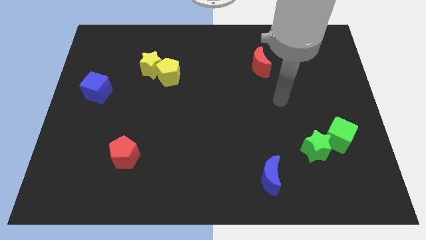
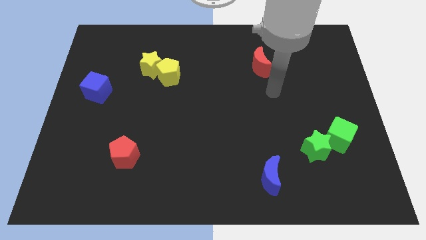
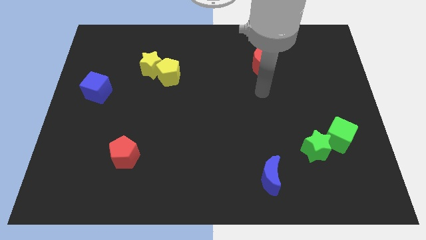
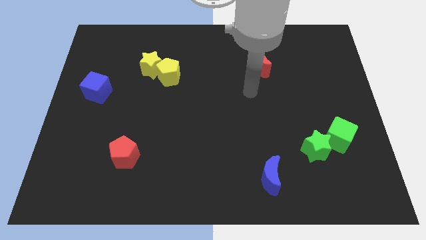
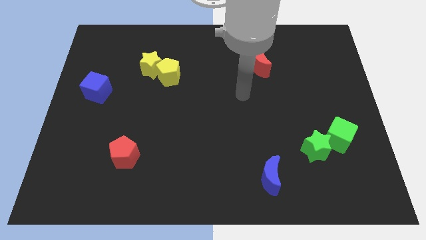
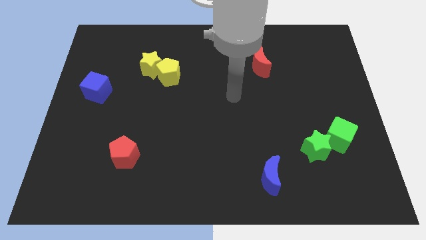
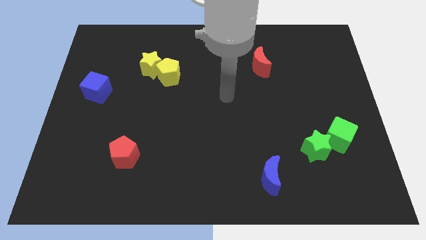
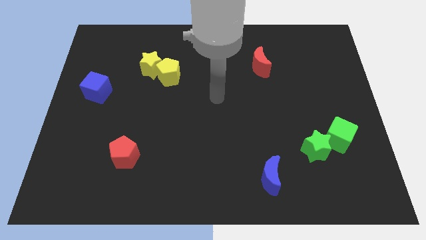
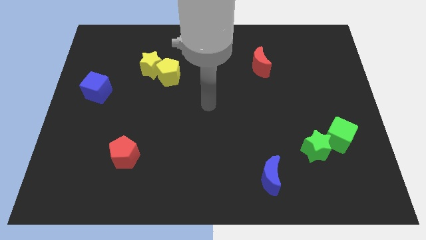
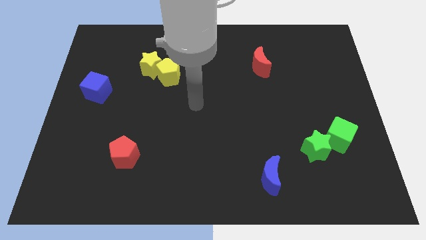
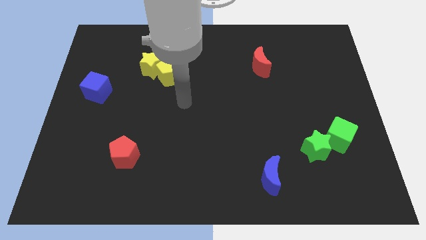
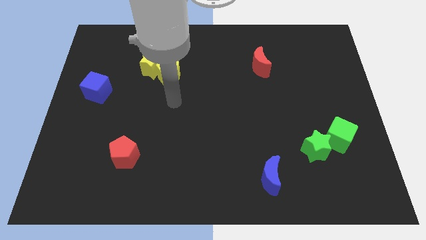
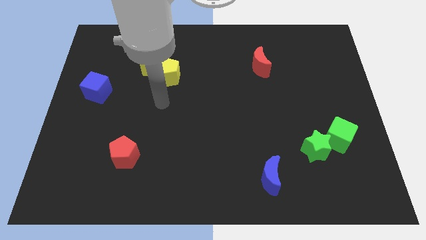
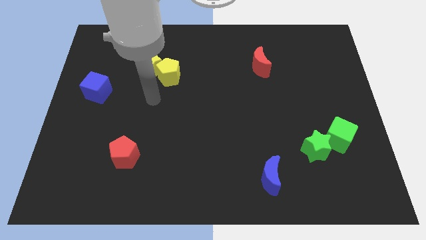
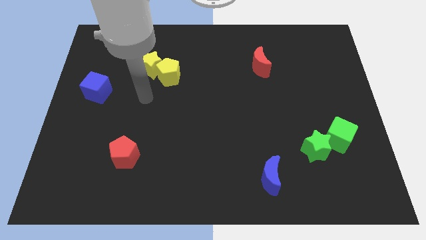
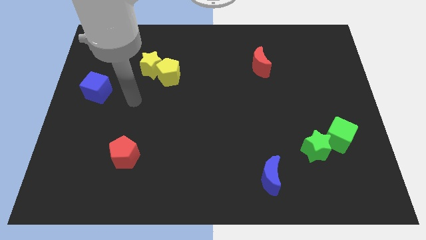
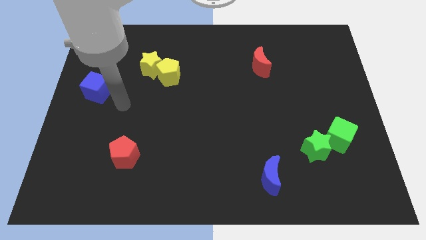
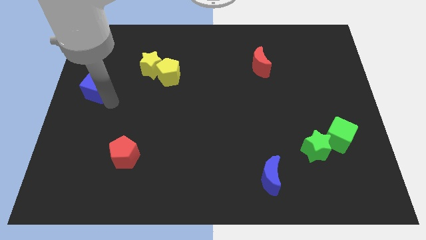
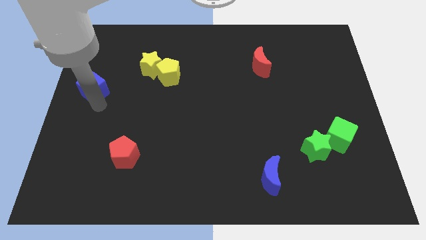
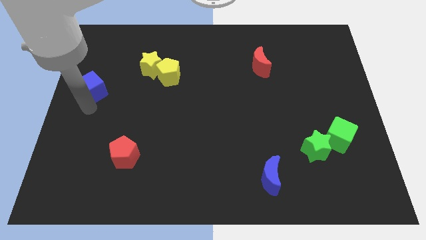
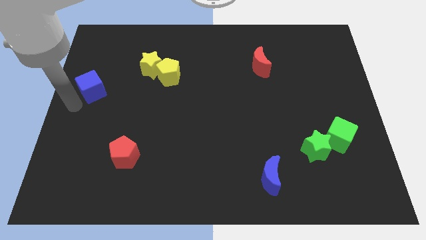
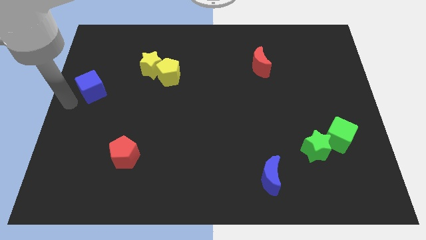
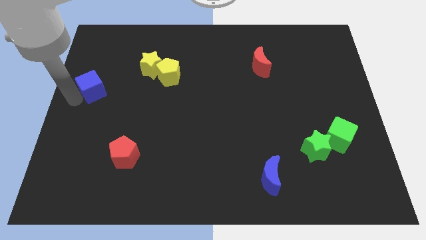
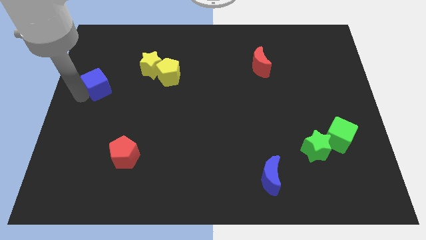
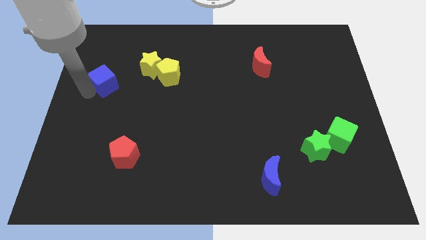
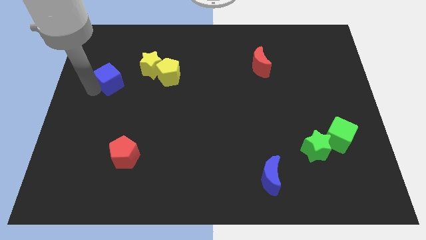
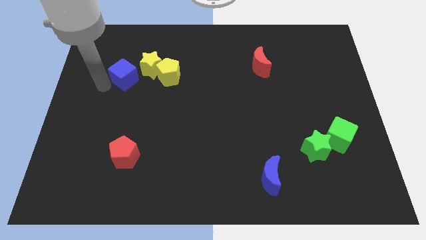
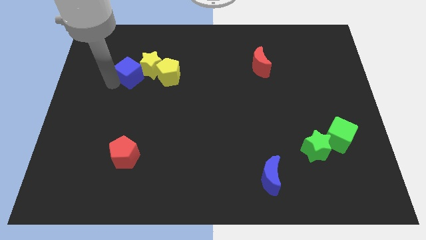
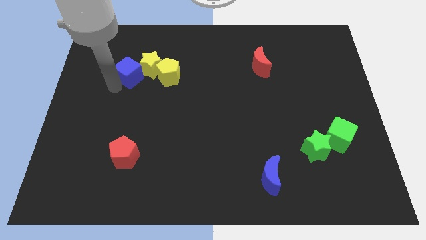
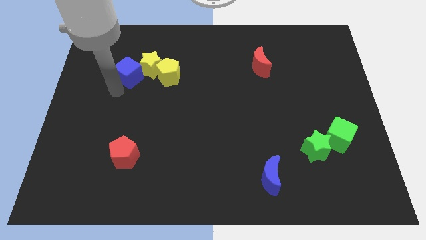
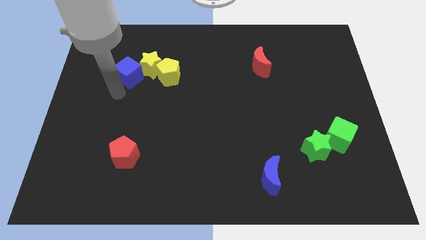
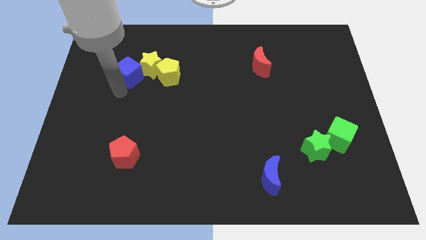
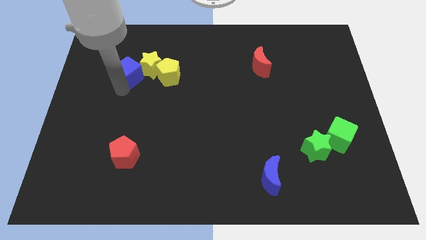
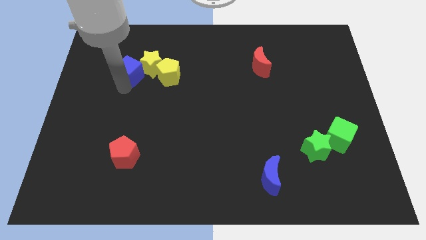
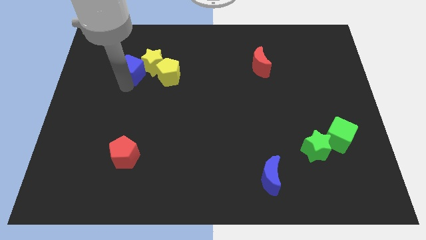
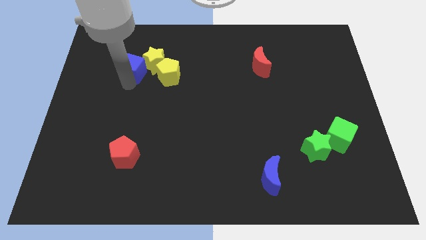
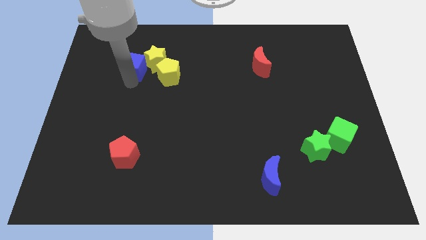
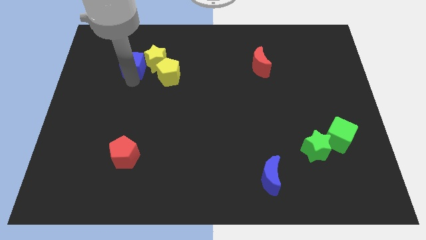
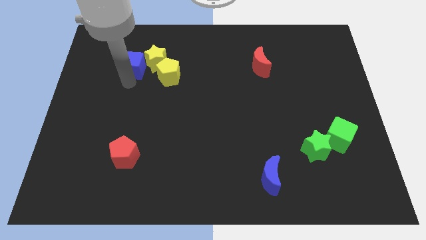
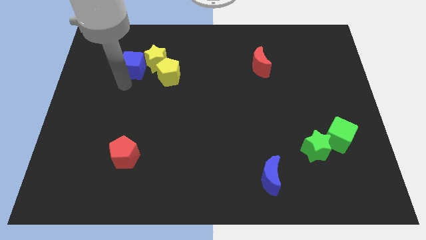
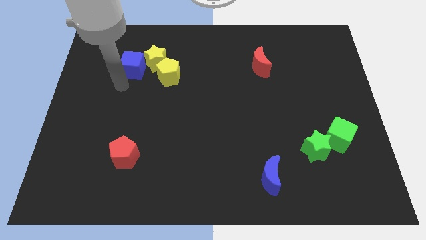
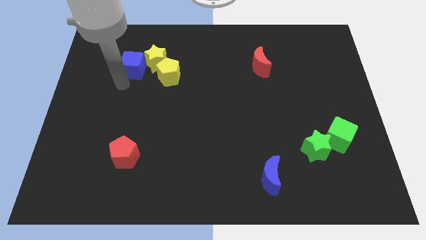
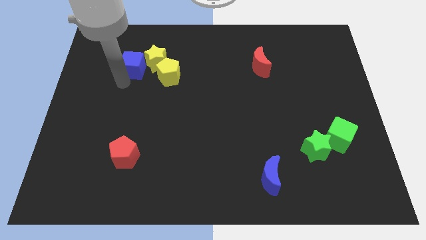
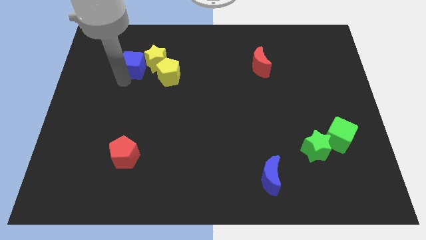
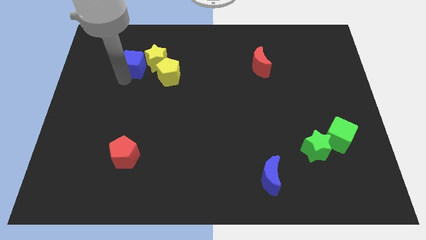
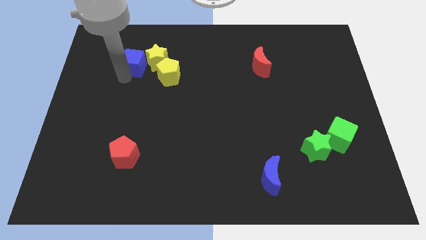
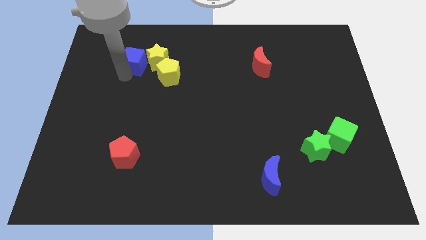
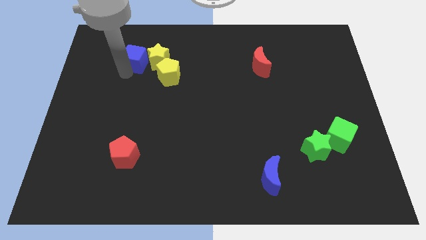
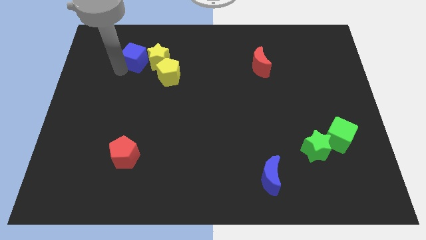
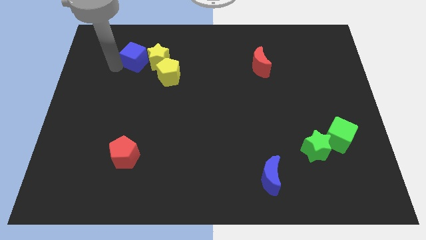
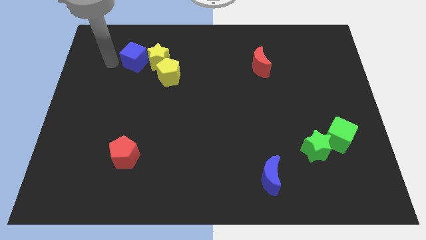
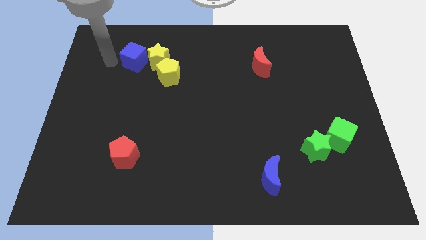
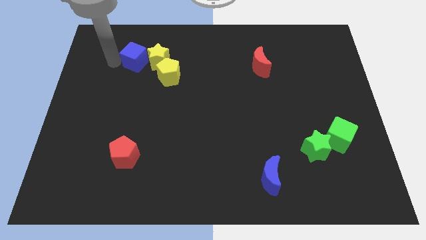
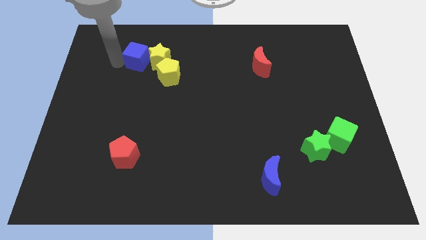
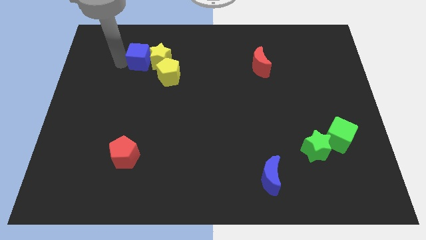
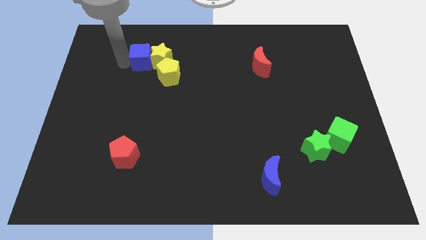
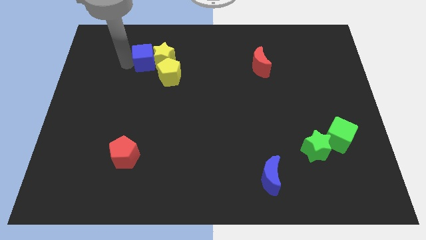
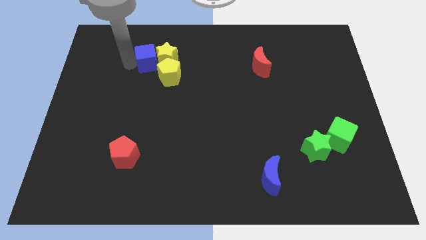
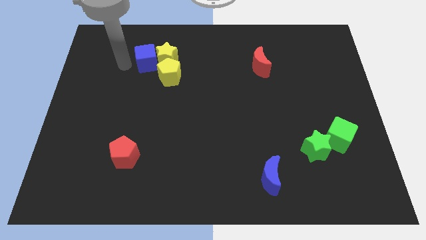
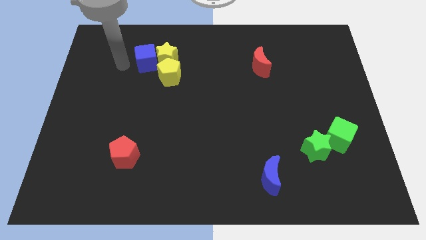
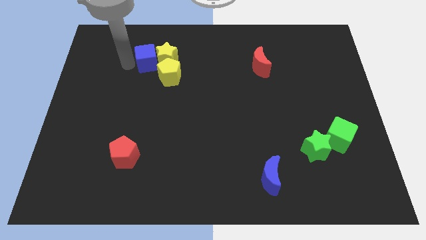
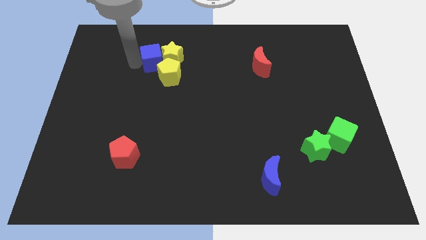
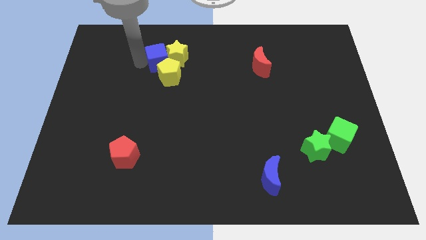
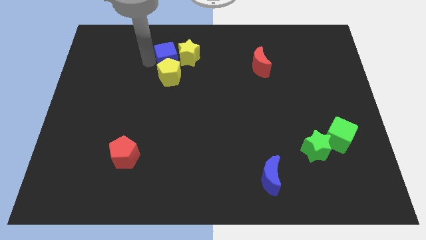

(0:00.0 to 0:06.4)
slide the blue cube diagonally up and to the right of the yellow pentagon

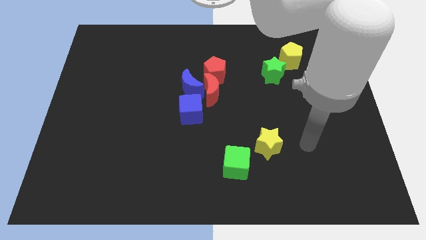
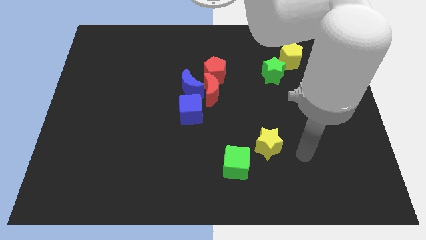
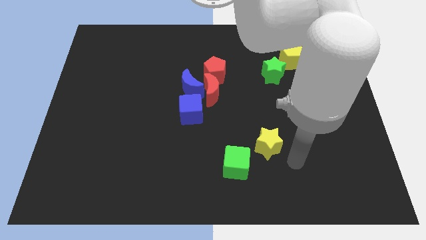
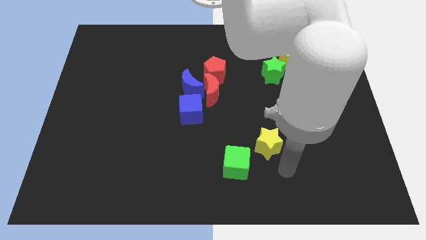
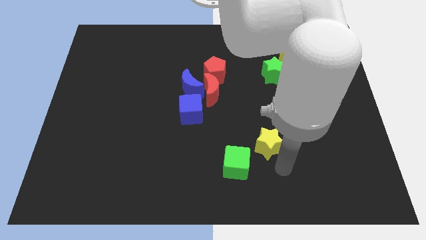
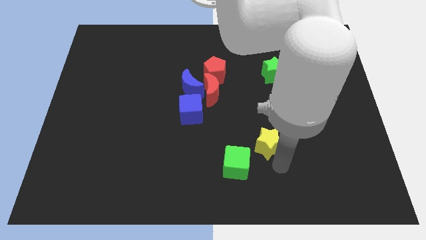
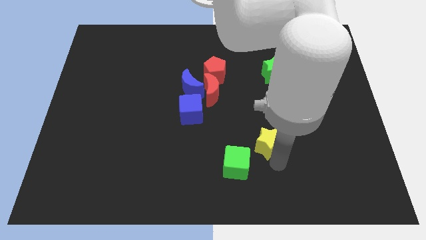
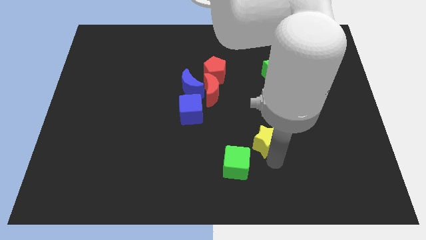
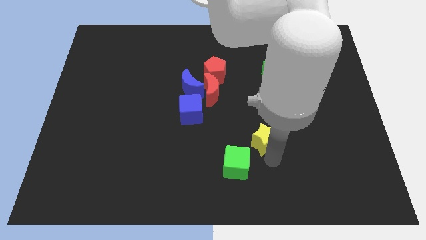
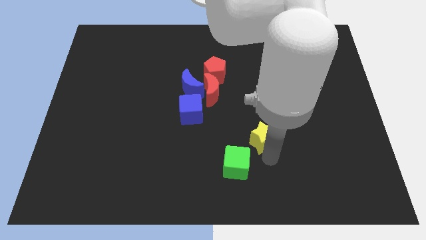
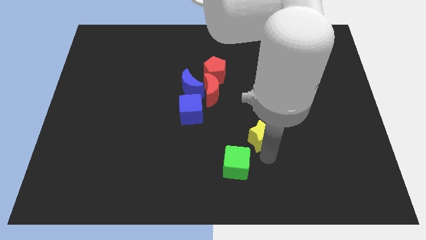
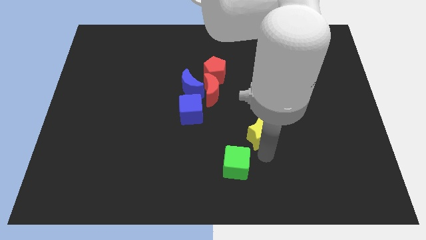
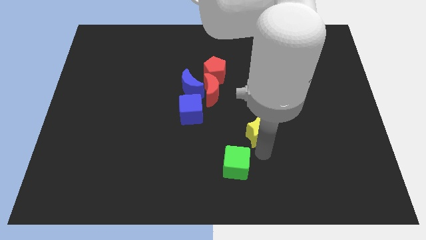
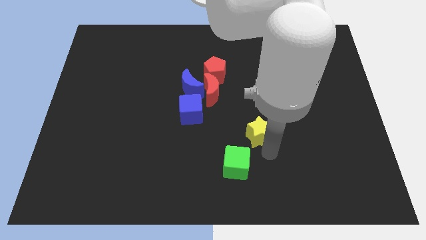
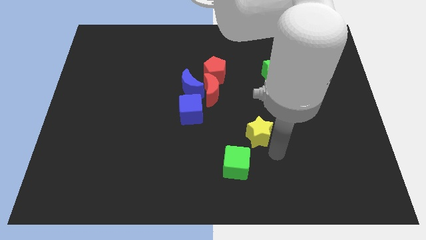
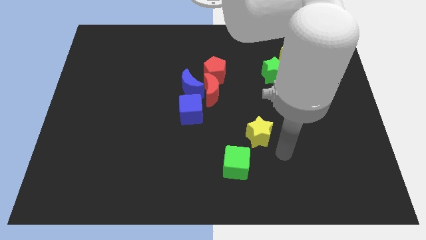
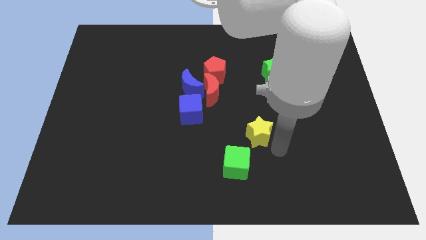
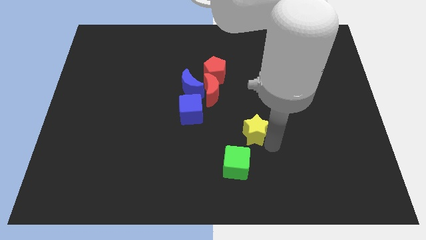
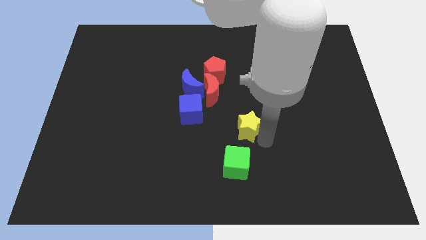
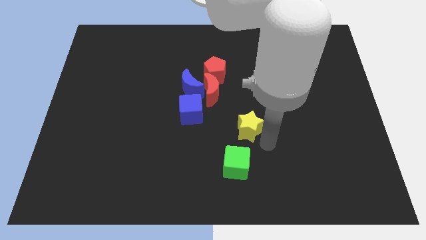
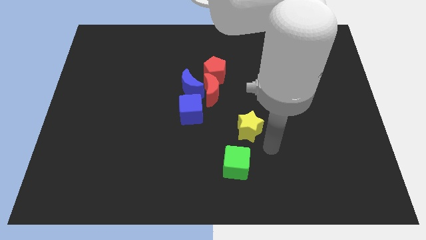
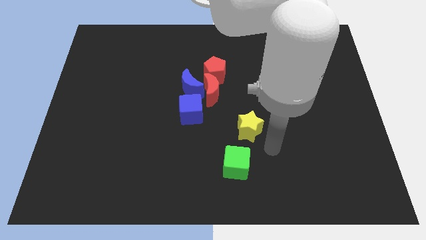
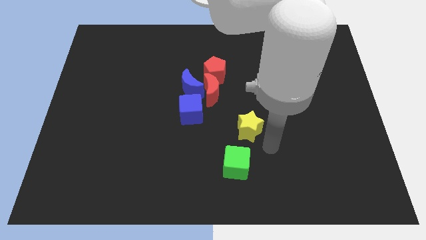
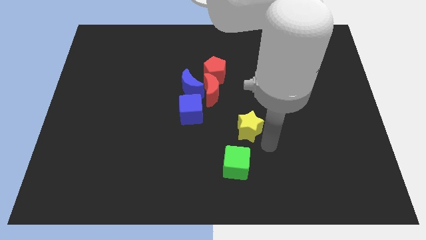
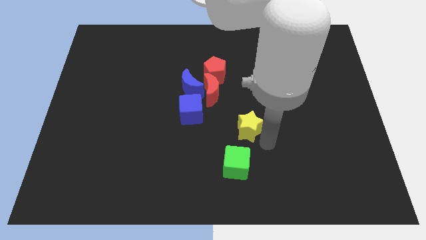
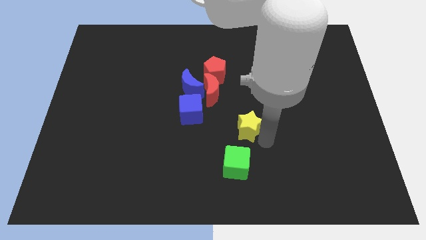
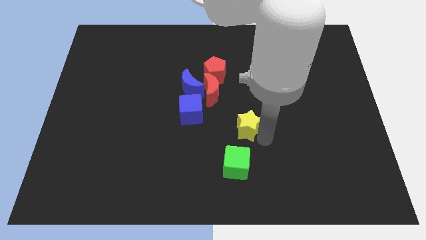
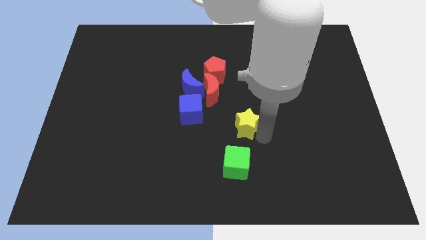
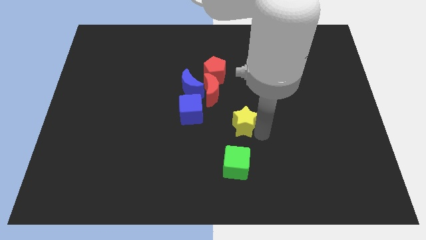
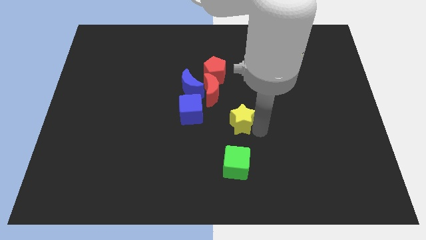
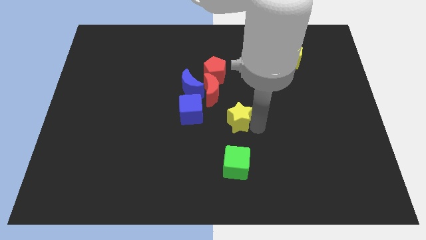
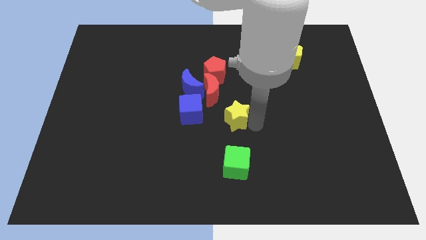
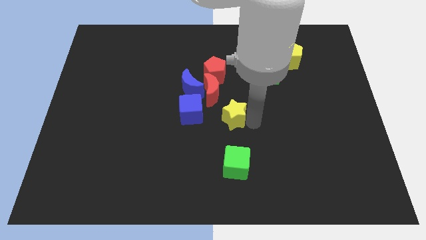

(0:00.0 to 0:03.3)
move the yellow star to the bottom side of the red pentagon
